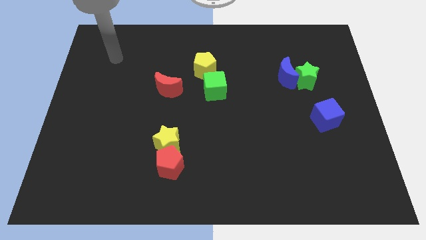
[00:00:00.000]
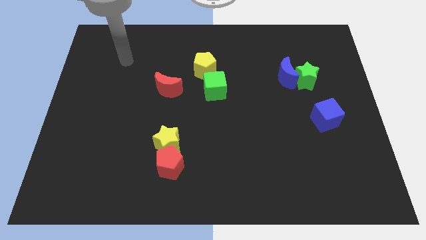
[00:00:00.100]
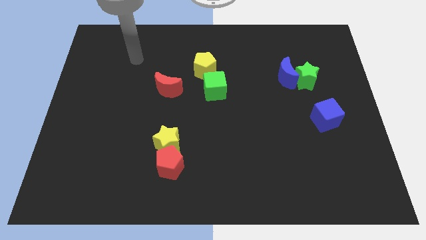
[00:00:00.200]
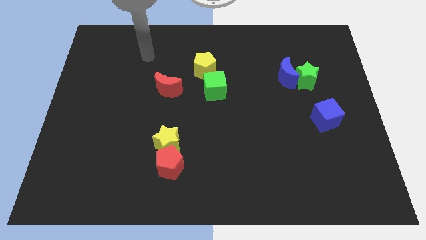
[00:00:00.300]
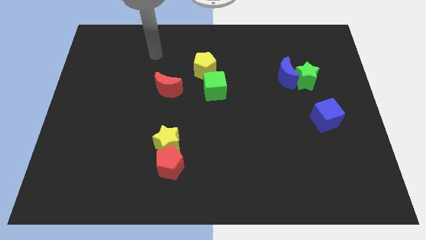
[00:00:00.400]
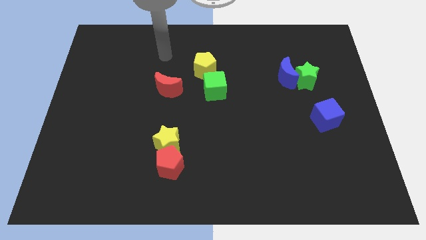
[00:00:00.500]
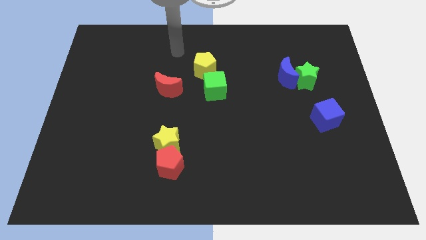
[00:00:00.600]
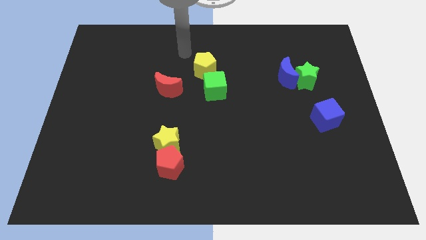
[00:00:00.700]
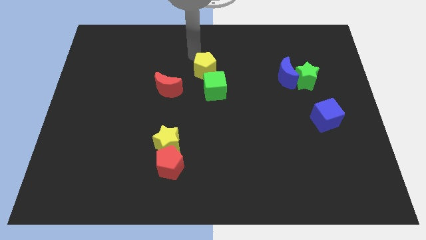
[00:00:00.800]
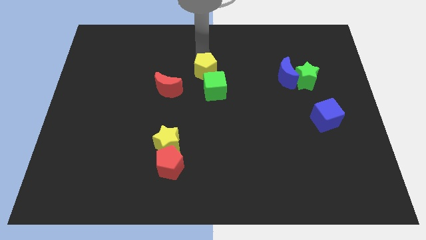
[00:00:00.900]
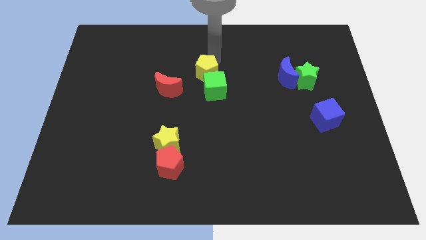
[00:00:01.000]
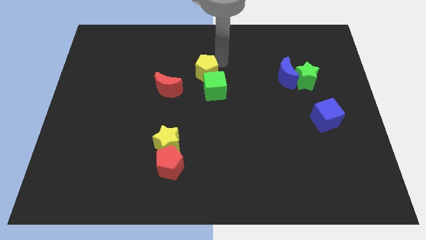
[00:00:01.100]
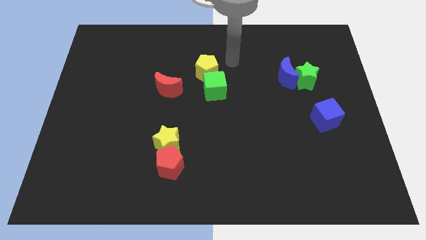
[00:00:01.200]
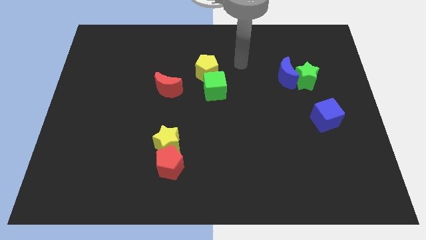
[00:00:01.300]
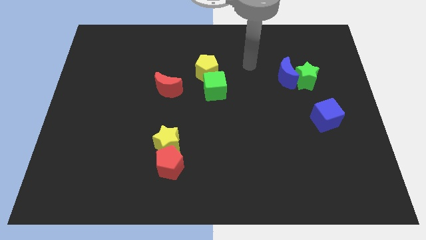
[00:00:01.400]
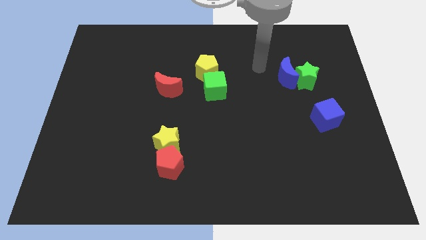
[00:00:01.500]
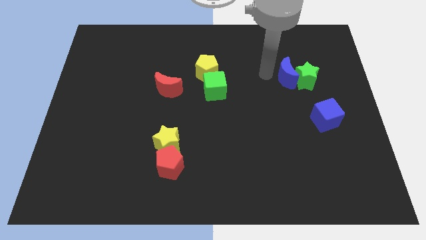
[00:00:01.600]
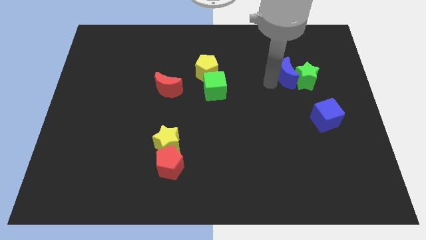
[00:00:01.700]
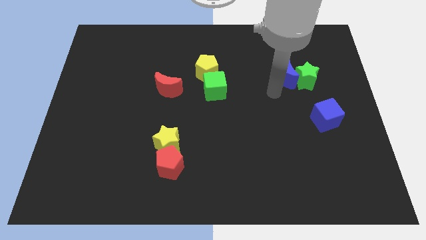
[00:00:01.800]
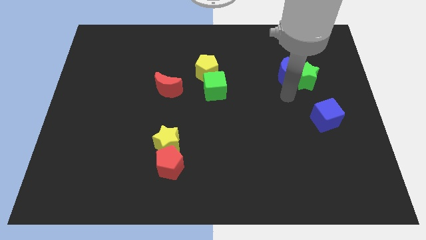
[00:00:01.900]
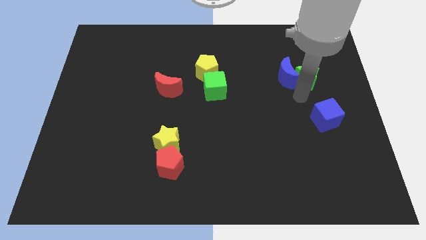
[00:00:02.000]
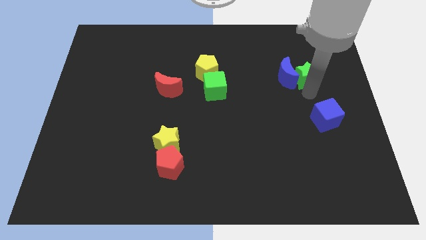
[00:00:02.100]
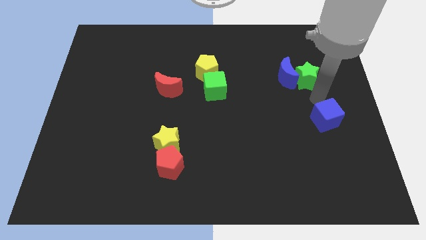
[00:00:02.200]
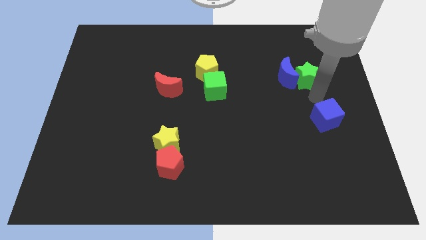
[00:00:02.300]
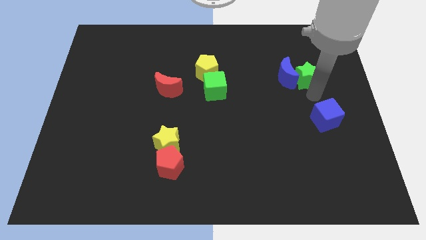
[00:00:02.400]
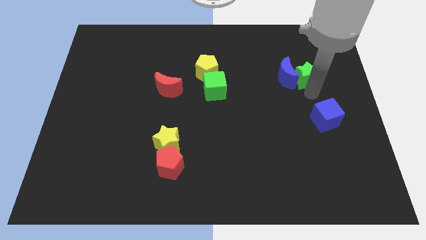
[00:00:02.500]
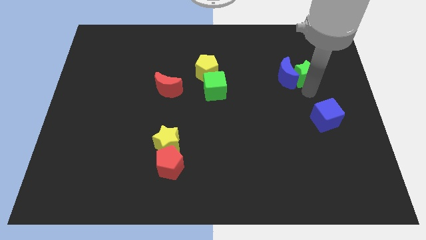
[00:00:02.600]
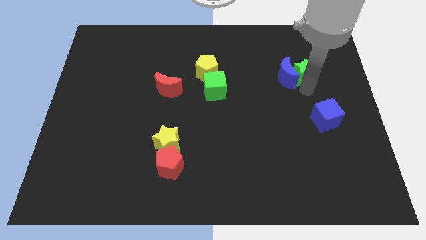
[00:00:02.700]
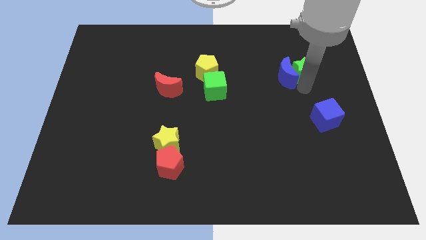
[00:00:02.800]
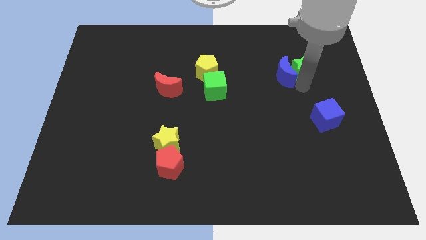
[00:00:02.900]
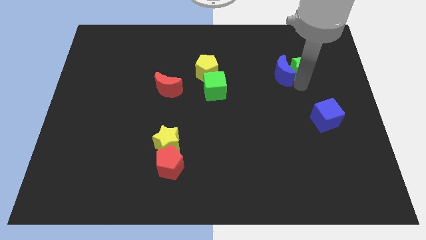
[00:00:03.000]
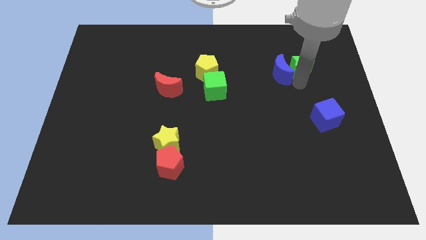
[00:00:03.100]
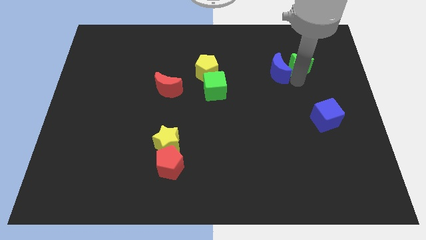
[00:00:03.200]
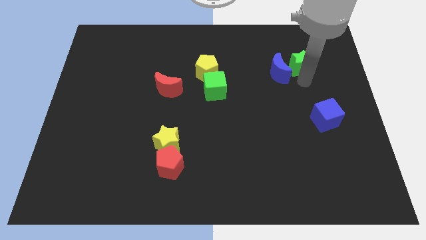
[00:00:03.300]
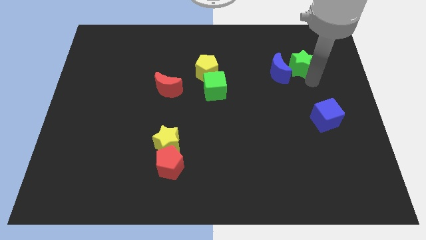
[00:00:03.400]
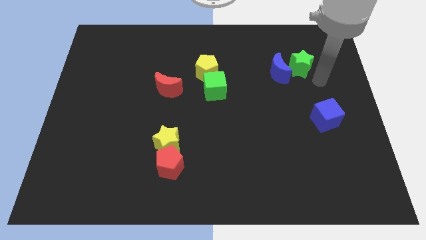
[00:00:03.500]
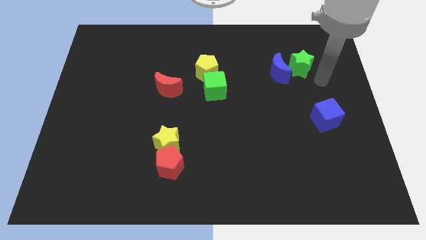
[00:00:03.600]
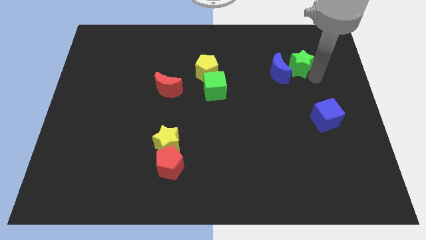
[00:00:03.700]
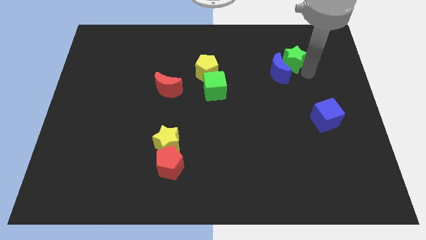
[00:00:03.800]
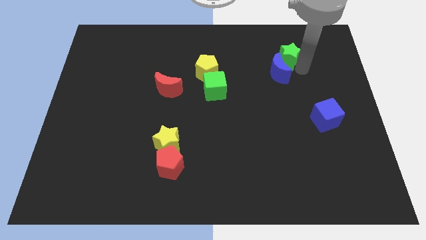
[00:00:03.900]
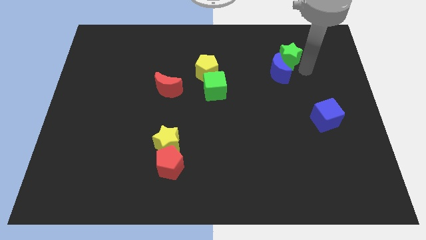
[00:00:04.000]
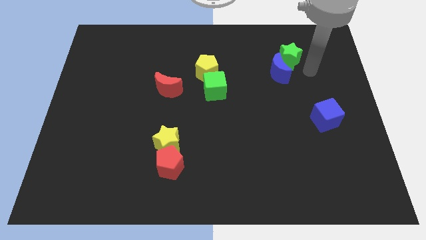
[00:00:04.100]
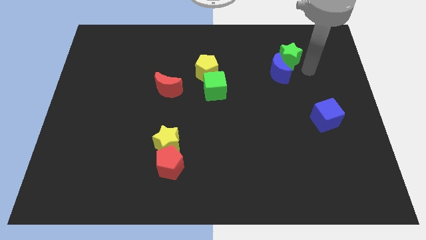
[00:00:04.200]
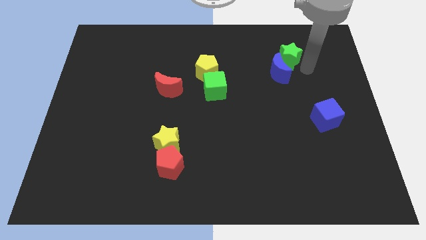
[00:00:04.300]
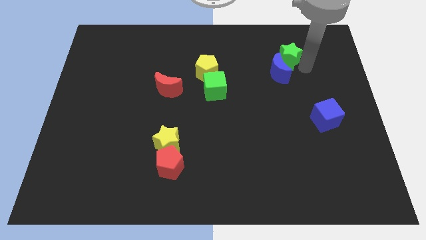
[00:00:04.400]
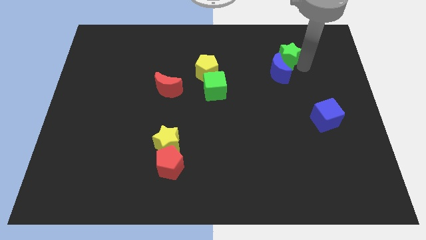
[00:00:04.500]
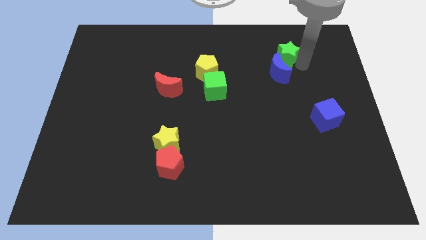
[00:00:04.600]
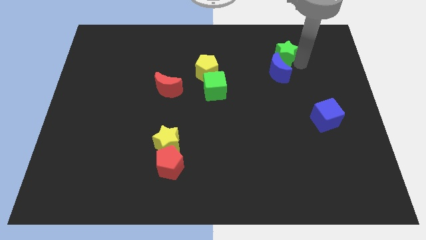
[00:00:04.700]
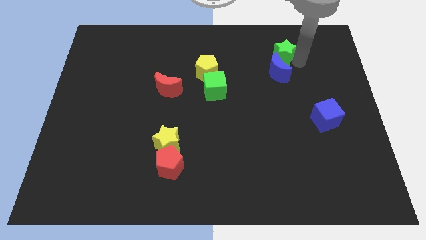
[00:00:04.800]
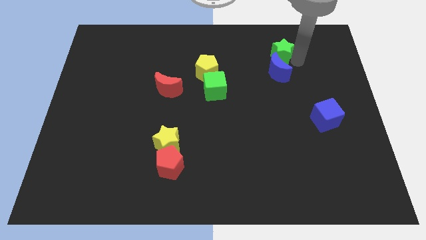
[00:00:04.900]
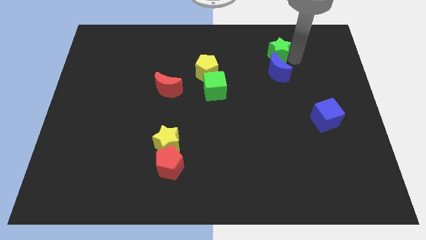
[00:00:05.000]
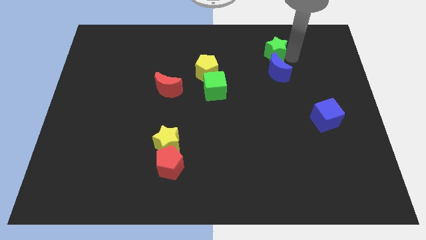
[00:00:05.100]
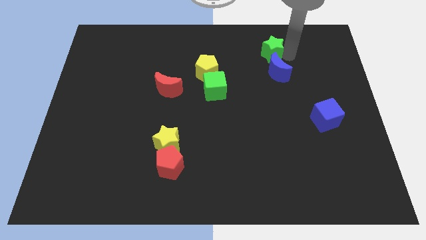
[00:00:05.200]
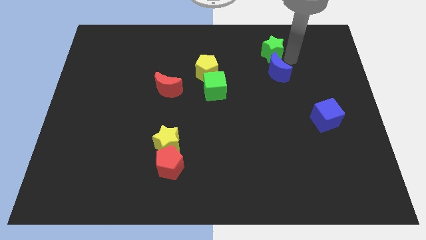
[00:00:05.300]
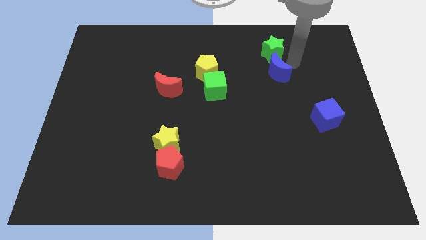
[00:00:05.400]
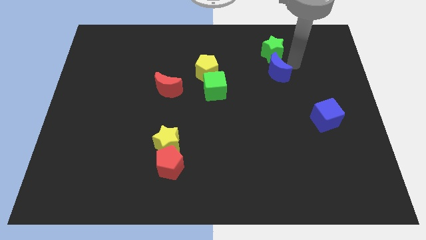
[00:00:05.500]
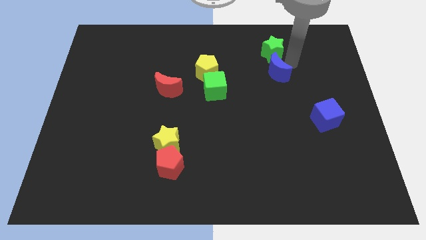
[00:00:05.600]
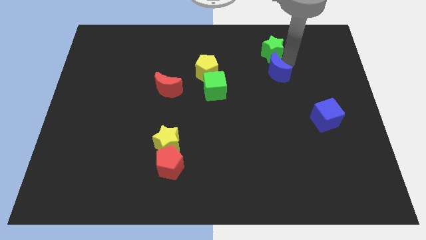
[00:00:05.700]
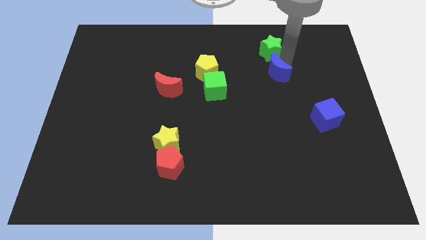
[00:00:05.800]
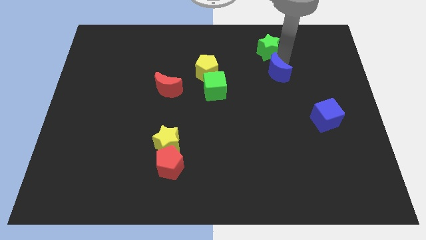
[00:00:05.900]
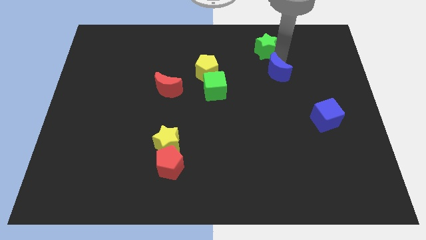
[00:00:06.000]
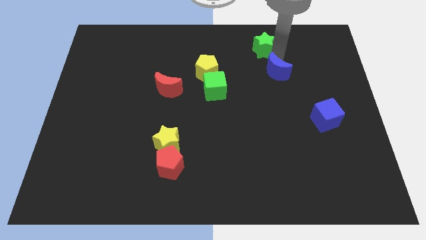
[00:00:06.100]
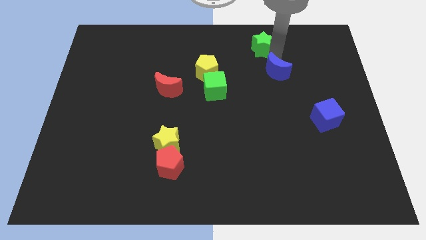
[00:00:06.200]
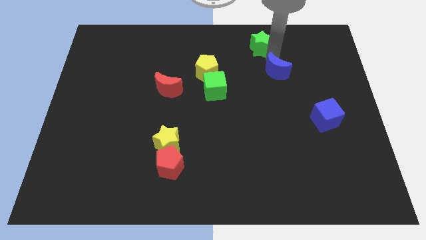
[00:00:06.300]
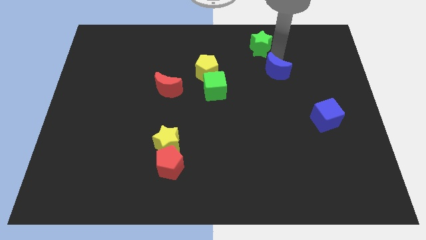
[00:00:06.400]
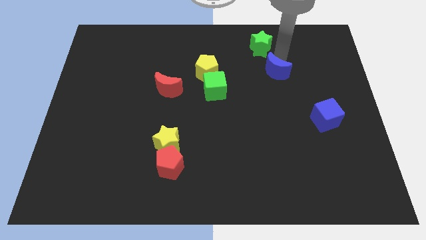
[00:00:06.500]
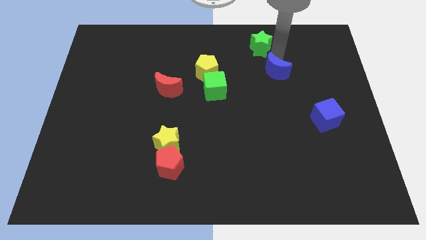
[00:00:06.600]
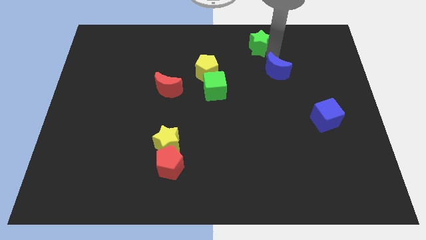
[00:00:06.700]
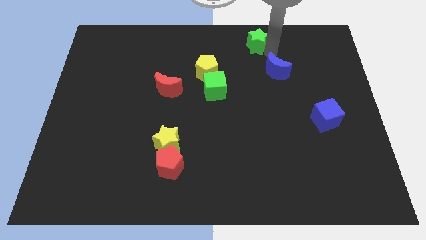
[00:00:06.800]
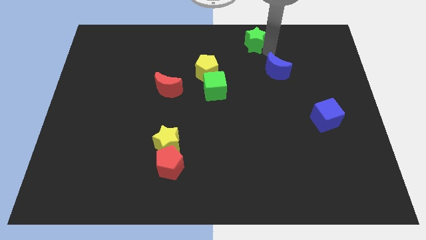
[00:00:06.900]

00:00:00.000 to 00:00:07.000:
push the green star to the top
